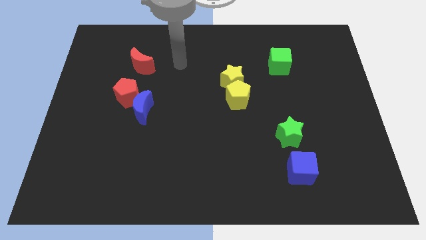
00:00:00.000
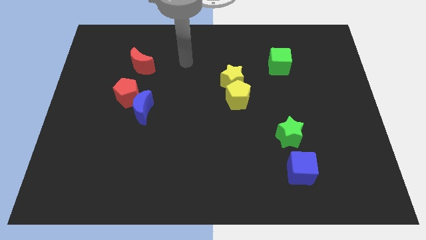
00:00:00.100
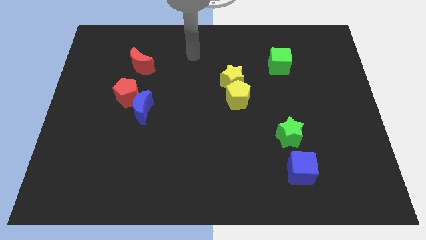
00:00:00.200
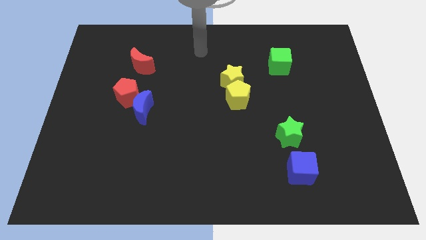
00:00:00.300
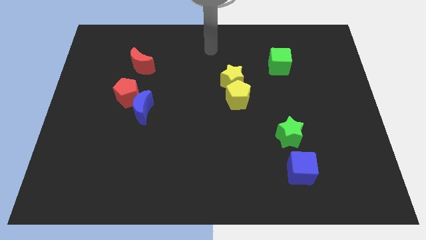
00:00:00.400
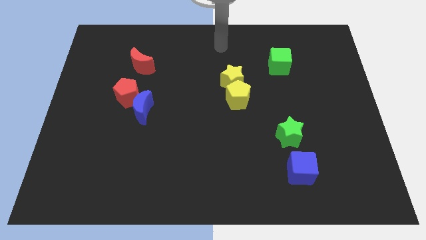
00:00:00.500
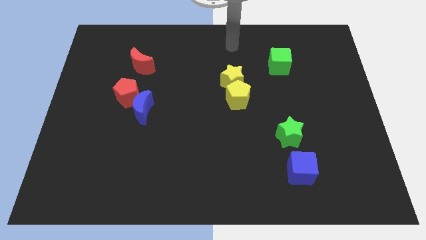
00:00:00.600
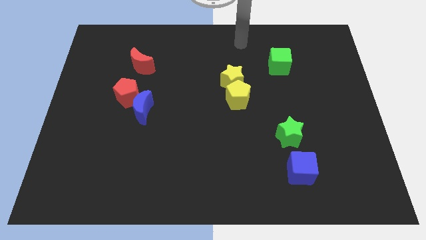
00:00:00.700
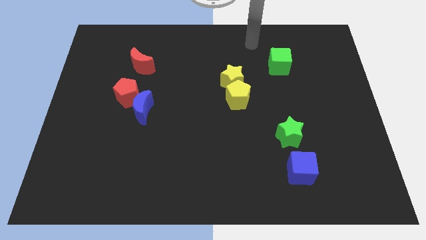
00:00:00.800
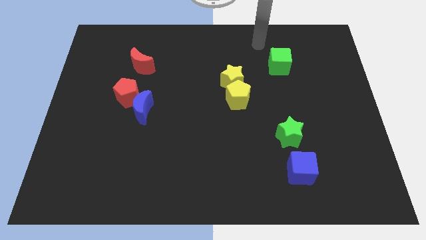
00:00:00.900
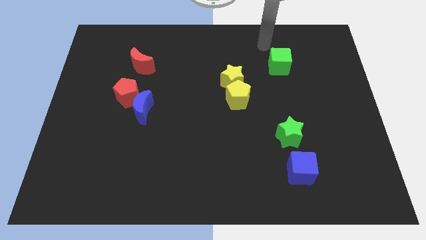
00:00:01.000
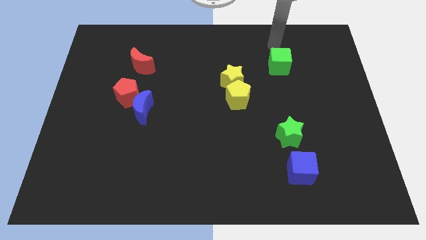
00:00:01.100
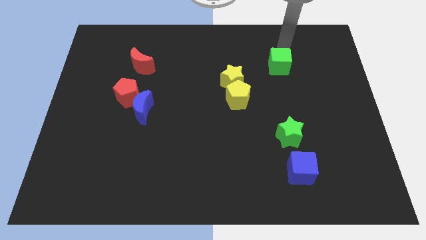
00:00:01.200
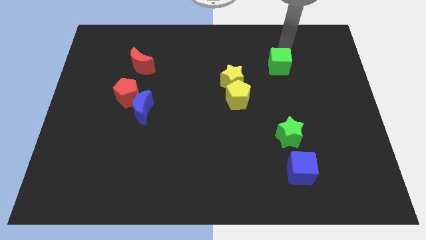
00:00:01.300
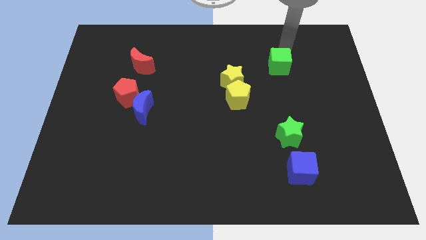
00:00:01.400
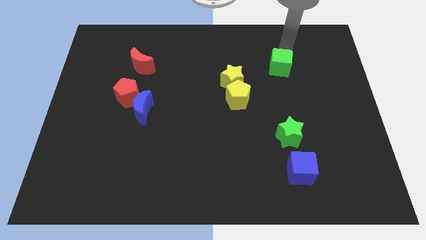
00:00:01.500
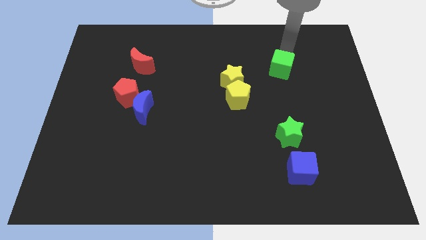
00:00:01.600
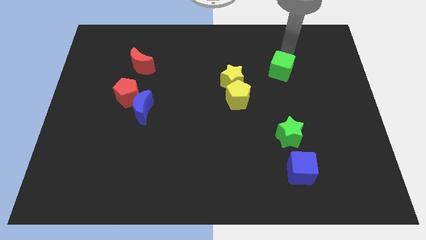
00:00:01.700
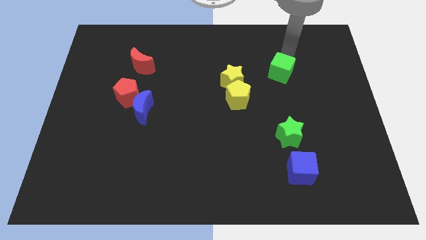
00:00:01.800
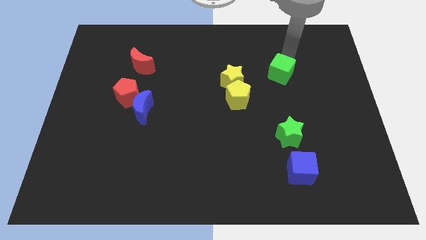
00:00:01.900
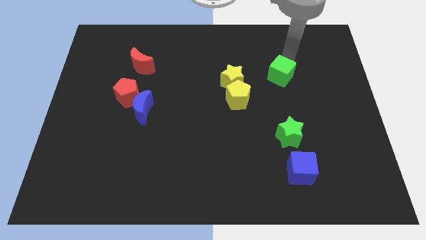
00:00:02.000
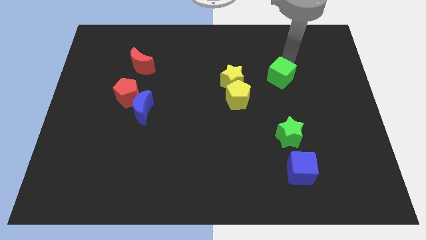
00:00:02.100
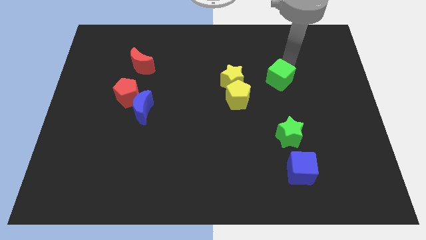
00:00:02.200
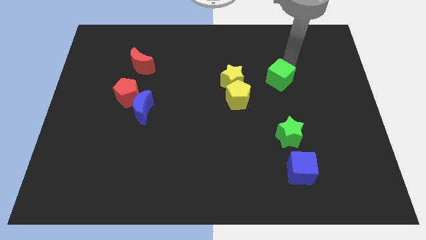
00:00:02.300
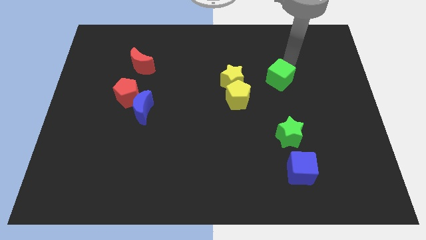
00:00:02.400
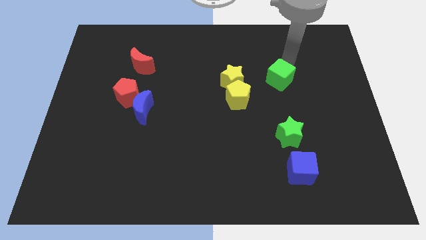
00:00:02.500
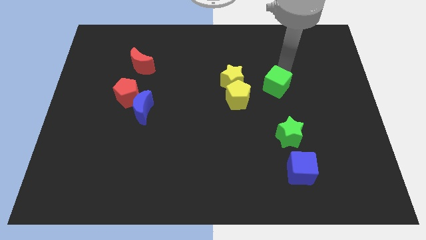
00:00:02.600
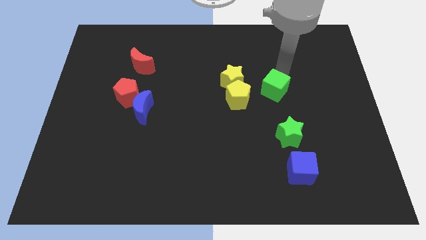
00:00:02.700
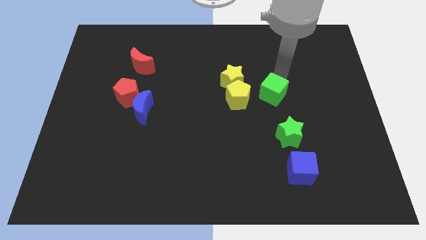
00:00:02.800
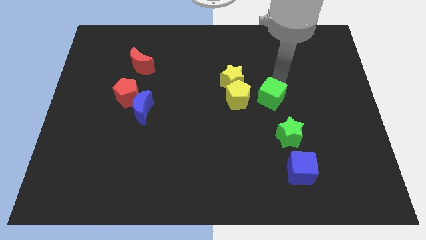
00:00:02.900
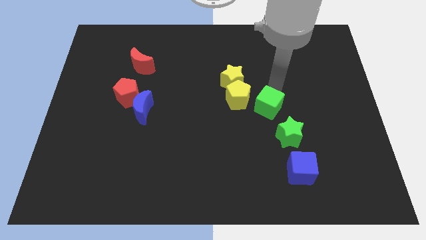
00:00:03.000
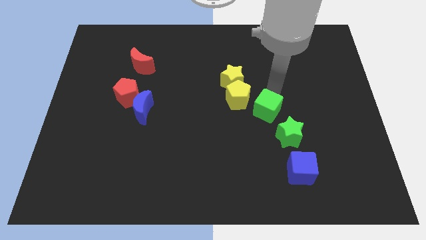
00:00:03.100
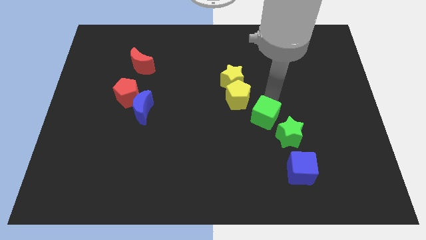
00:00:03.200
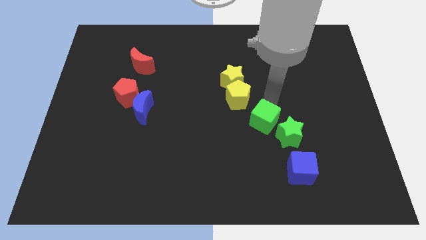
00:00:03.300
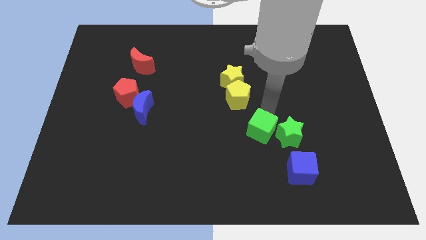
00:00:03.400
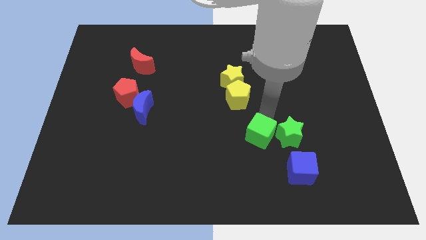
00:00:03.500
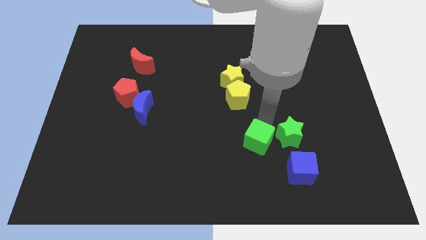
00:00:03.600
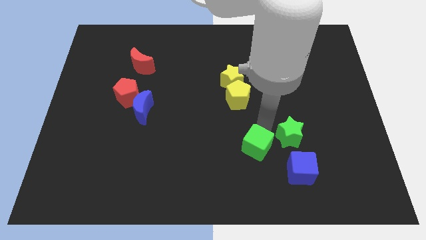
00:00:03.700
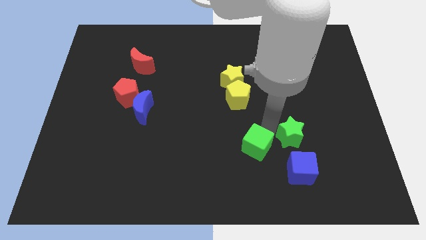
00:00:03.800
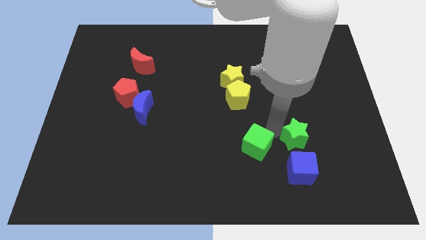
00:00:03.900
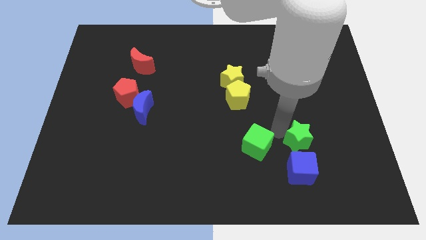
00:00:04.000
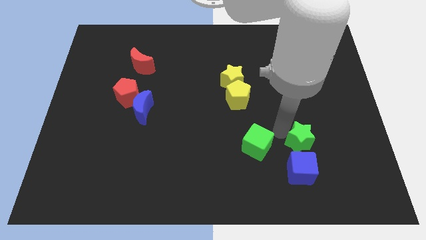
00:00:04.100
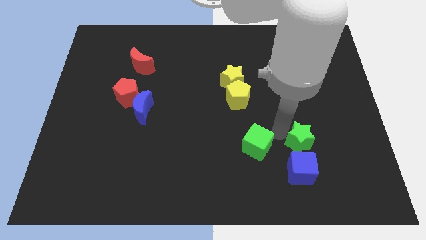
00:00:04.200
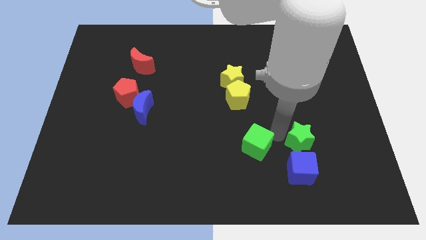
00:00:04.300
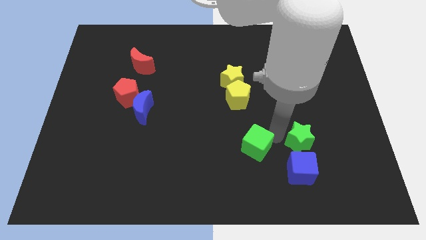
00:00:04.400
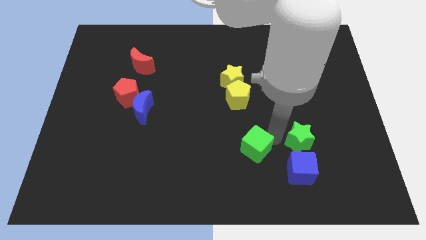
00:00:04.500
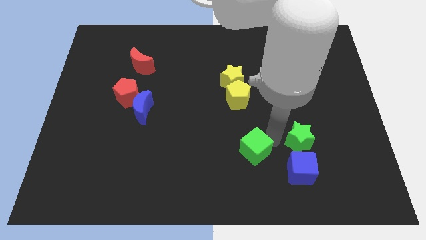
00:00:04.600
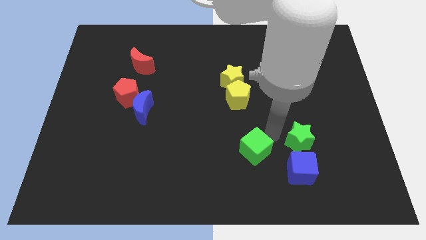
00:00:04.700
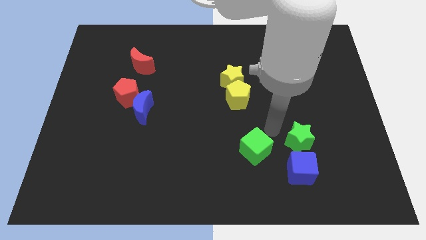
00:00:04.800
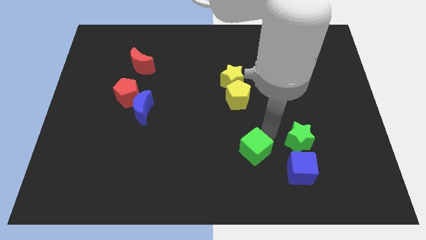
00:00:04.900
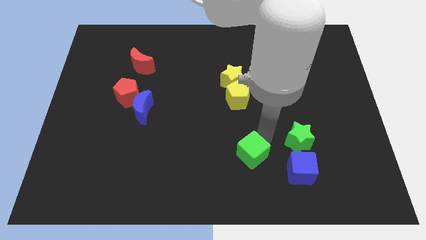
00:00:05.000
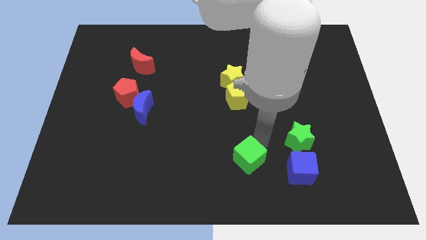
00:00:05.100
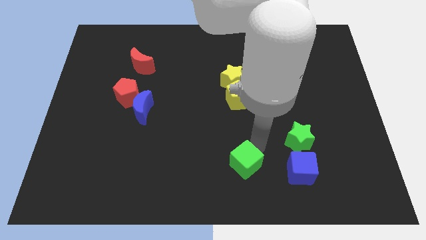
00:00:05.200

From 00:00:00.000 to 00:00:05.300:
slide the green cube to the bottom

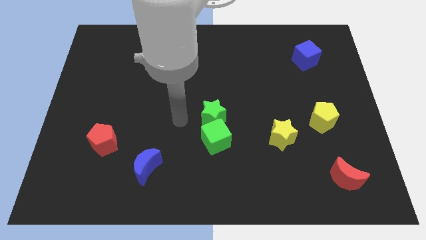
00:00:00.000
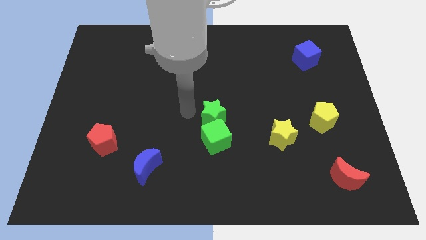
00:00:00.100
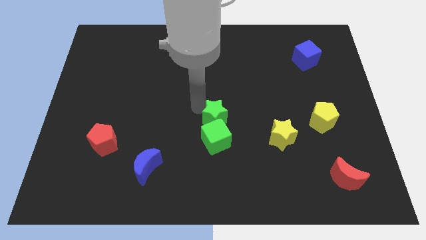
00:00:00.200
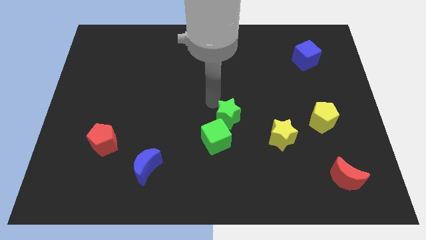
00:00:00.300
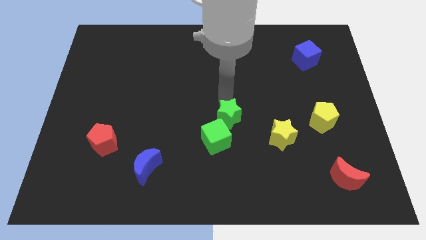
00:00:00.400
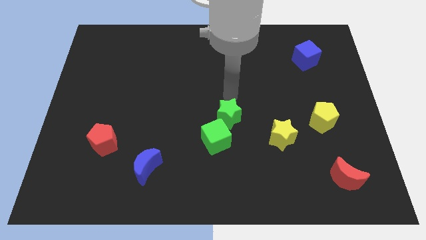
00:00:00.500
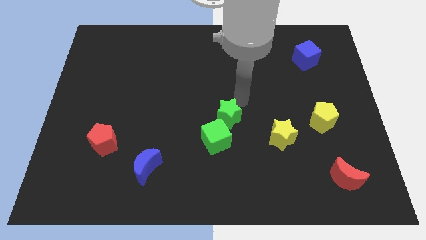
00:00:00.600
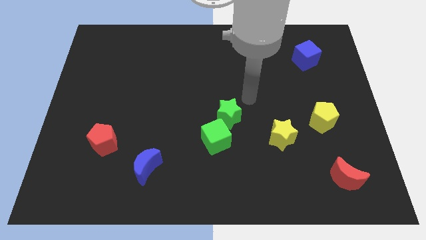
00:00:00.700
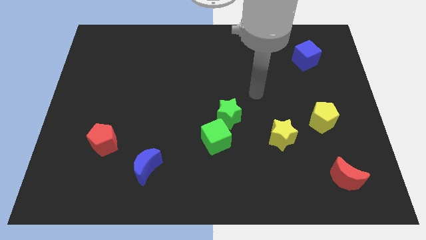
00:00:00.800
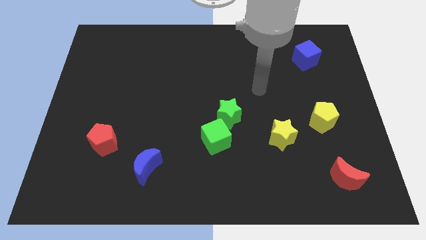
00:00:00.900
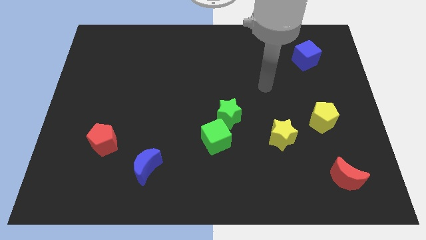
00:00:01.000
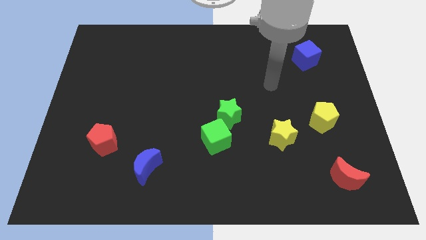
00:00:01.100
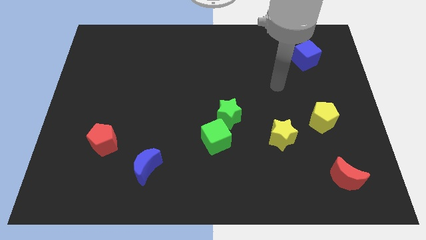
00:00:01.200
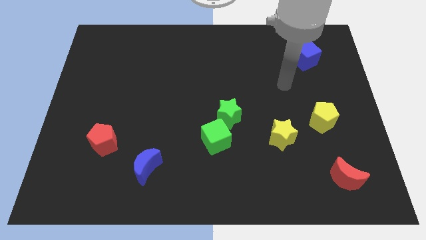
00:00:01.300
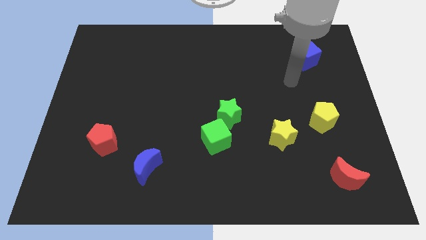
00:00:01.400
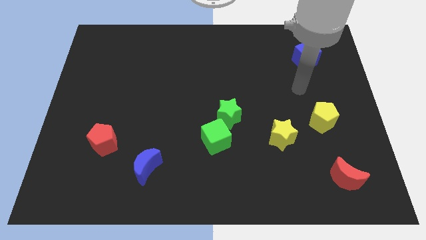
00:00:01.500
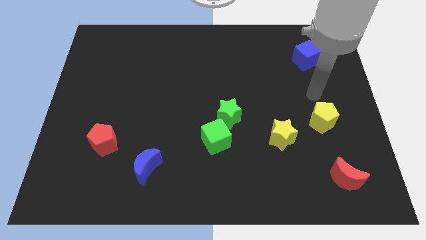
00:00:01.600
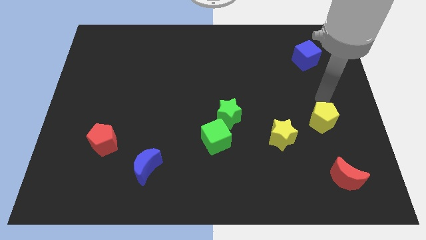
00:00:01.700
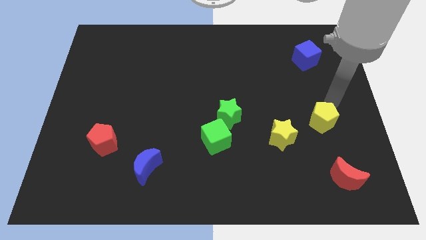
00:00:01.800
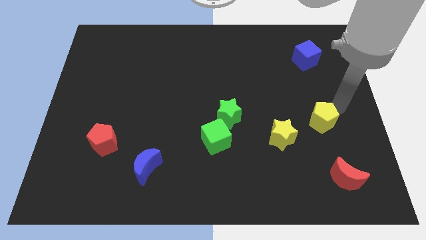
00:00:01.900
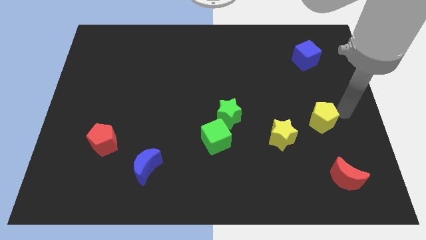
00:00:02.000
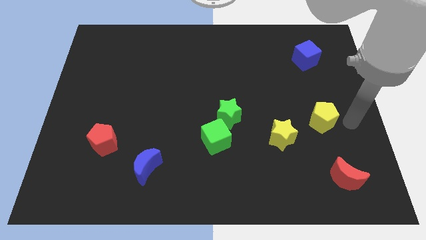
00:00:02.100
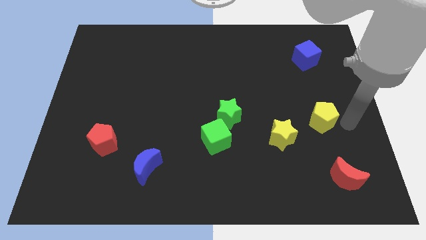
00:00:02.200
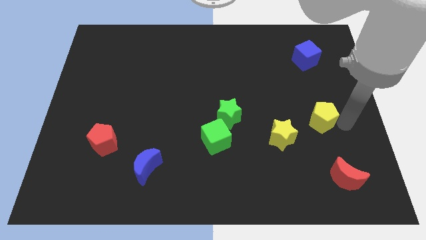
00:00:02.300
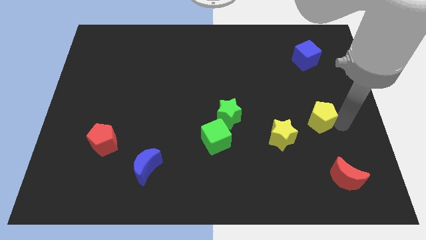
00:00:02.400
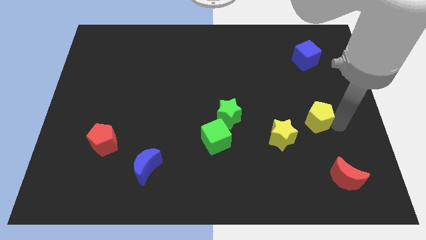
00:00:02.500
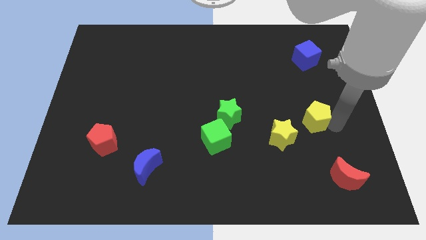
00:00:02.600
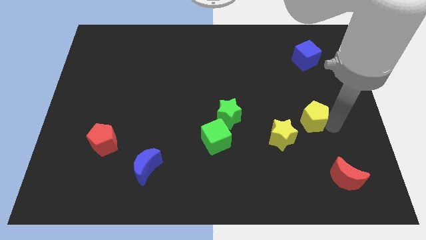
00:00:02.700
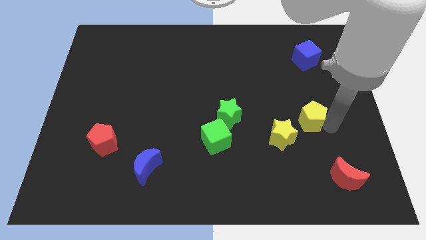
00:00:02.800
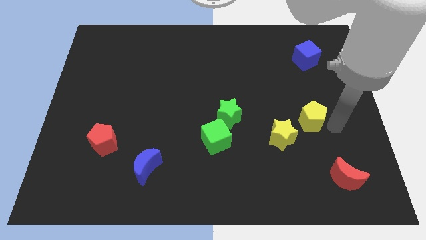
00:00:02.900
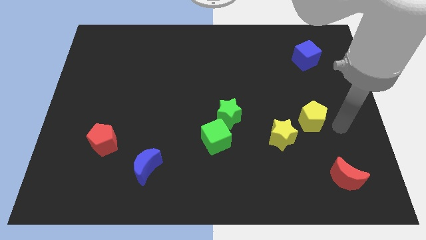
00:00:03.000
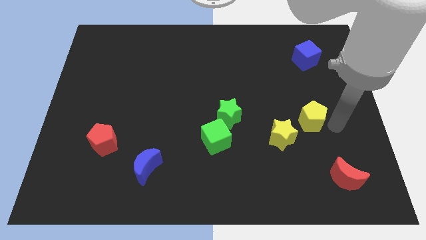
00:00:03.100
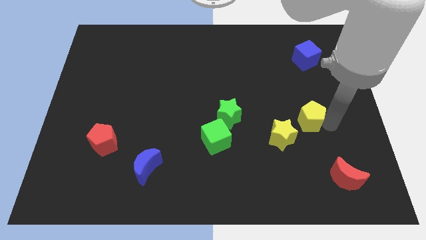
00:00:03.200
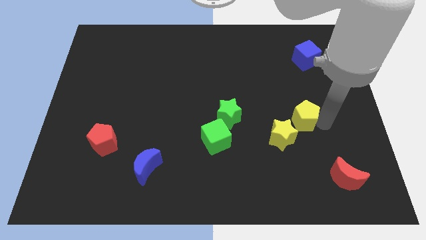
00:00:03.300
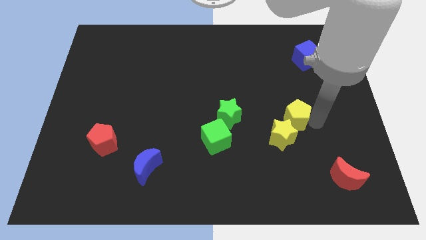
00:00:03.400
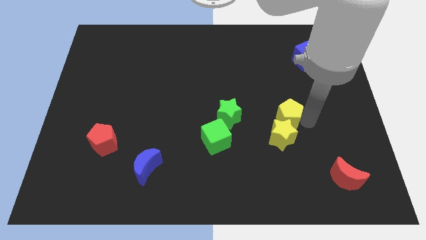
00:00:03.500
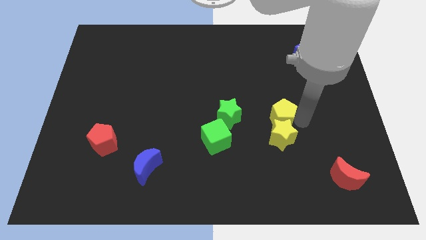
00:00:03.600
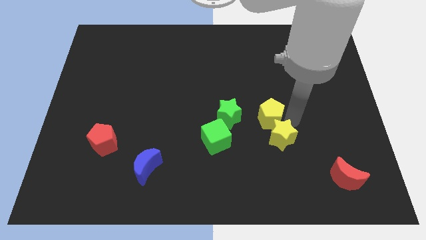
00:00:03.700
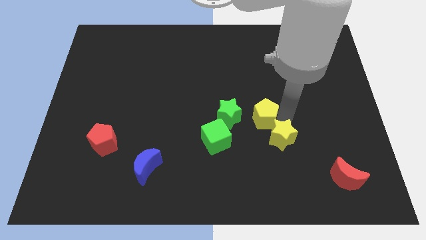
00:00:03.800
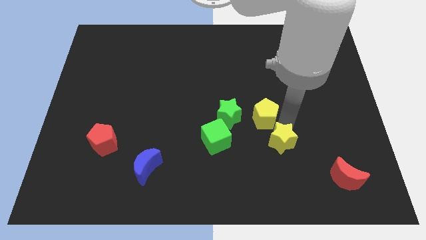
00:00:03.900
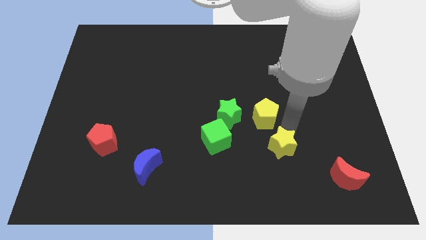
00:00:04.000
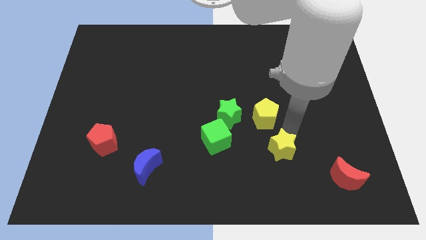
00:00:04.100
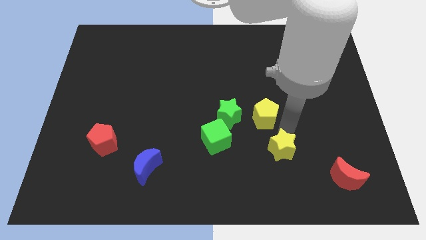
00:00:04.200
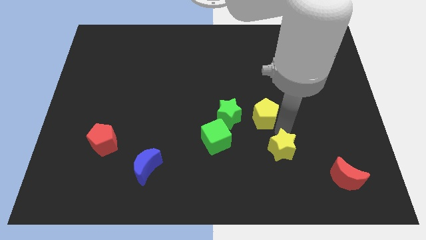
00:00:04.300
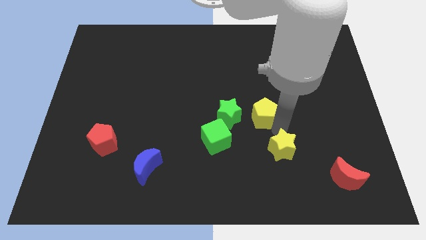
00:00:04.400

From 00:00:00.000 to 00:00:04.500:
put the yellow pentagon to the center
